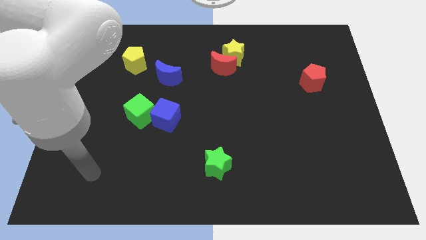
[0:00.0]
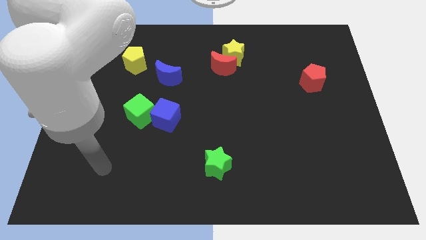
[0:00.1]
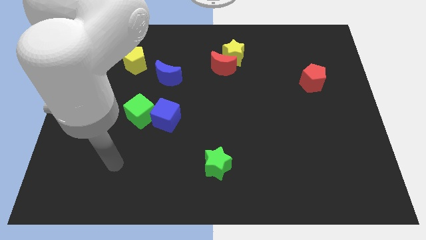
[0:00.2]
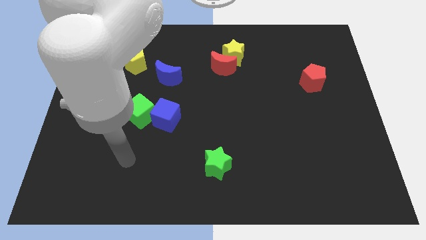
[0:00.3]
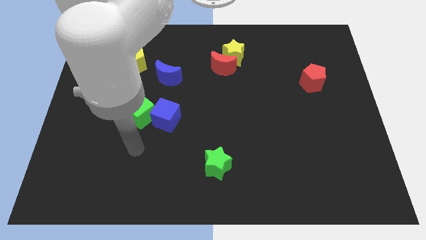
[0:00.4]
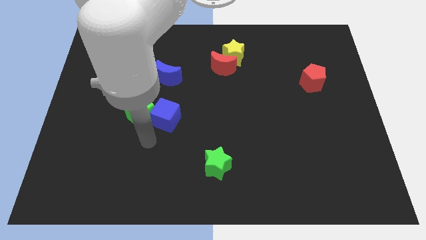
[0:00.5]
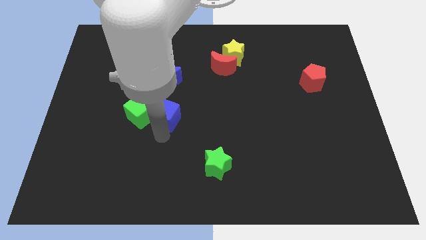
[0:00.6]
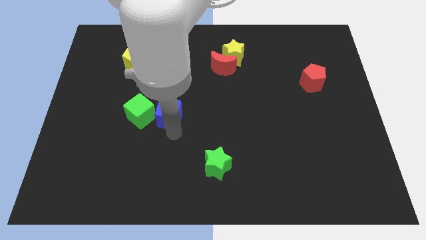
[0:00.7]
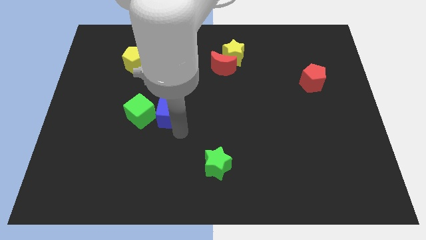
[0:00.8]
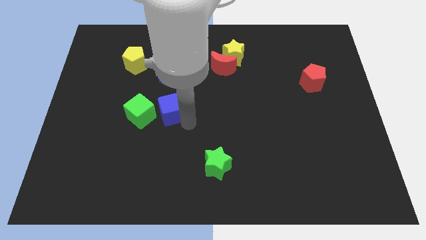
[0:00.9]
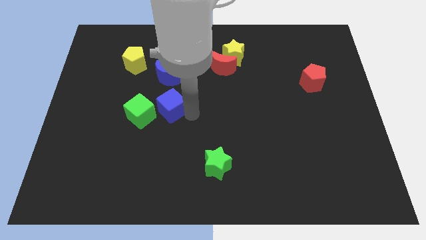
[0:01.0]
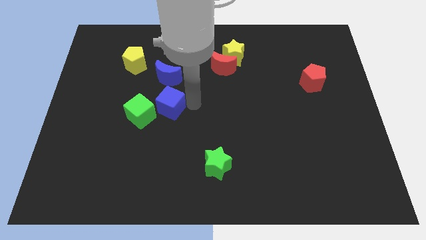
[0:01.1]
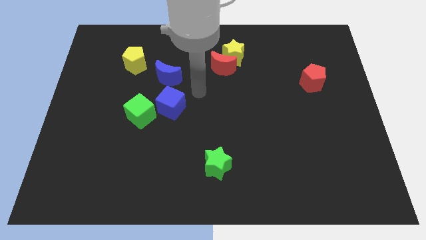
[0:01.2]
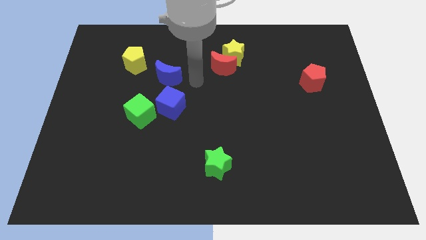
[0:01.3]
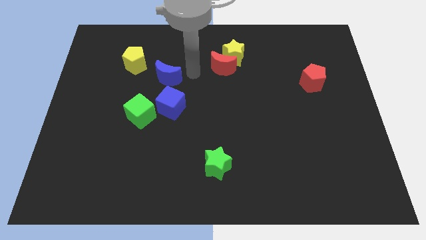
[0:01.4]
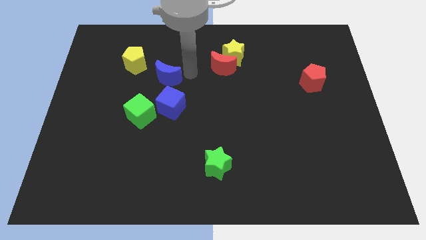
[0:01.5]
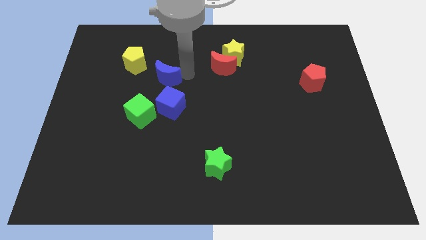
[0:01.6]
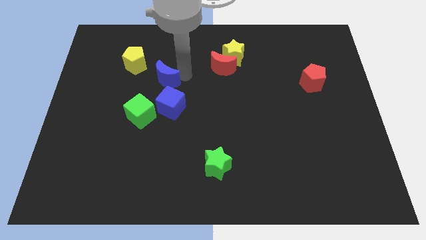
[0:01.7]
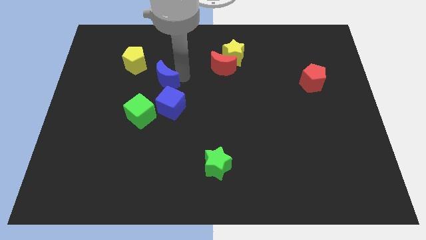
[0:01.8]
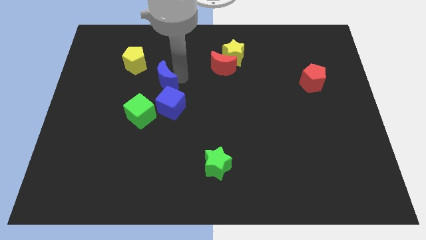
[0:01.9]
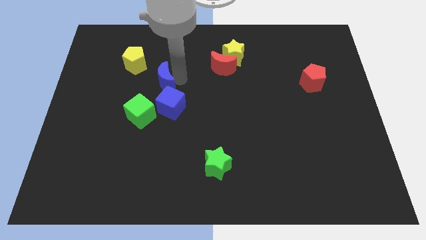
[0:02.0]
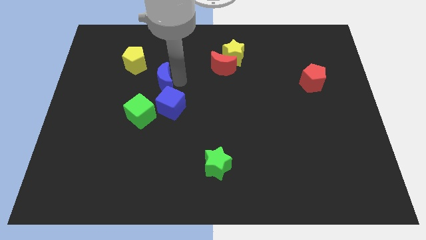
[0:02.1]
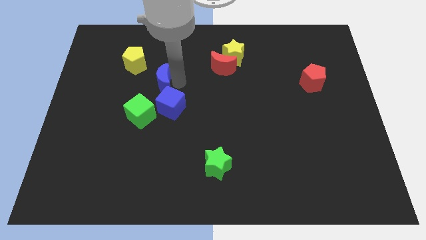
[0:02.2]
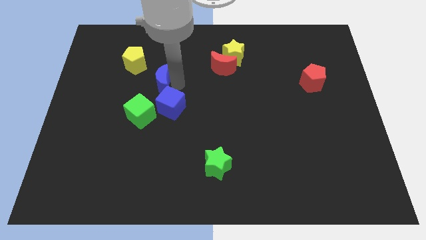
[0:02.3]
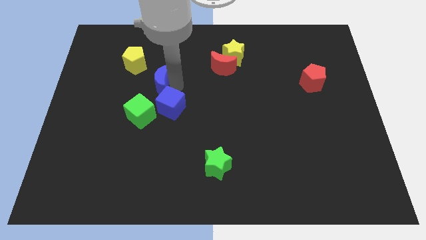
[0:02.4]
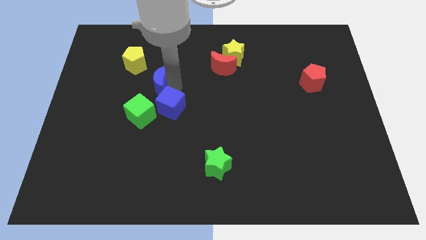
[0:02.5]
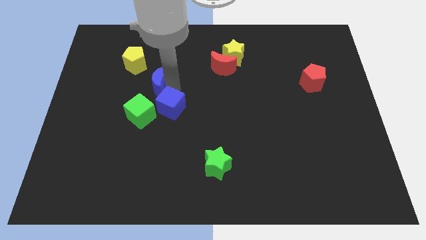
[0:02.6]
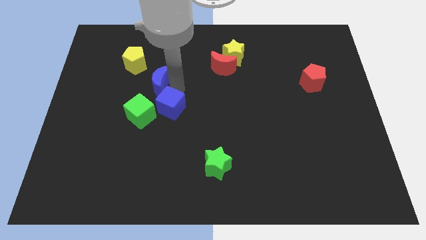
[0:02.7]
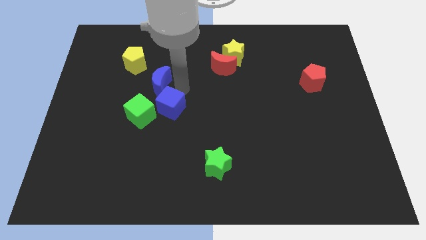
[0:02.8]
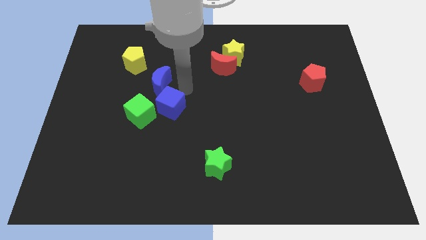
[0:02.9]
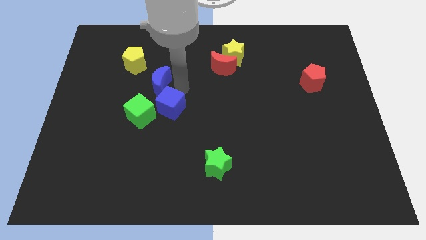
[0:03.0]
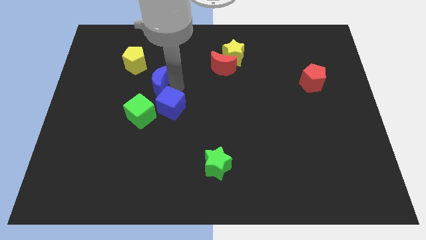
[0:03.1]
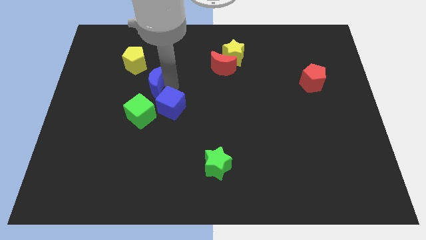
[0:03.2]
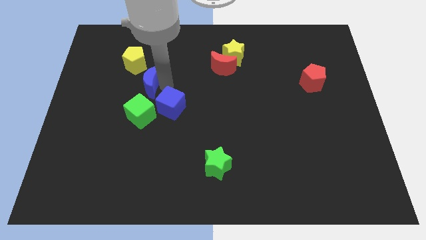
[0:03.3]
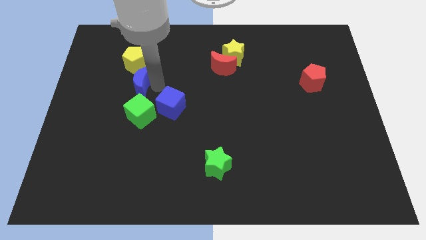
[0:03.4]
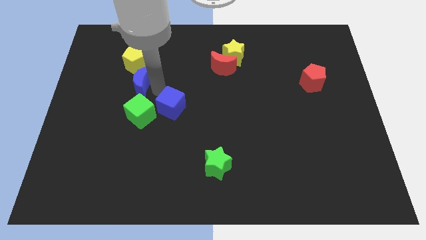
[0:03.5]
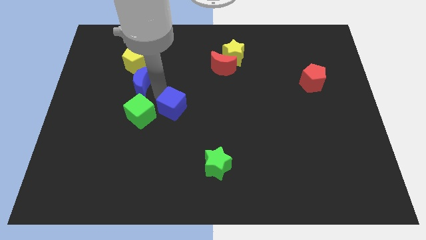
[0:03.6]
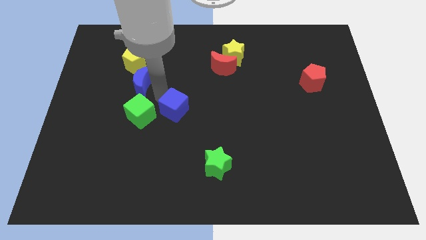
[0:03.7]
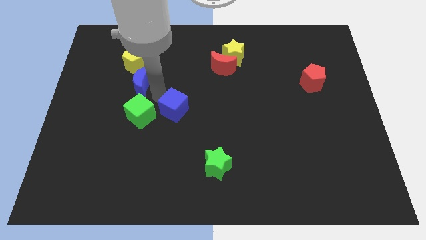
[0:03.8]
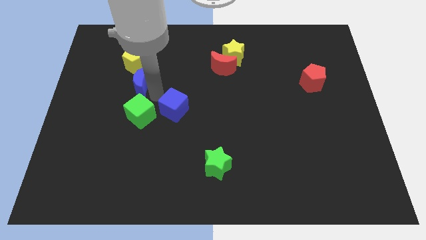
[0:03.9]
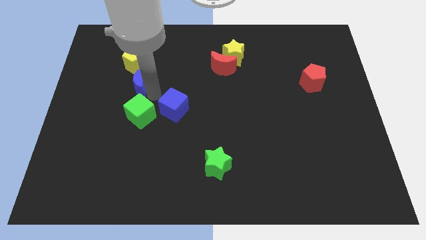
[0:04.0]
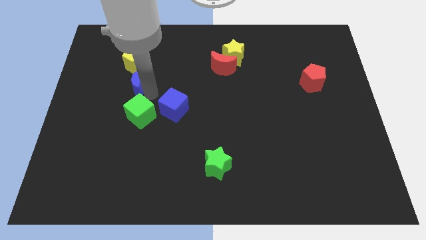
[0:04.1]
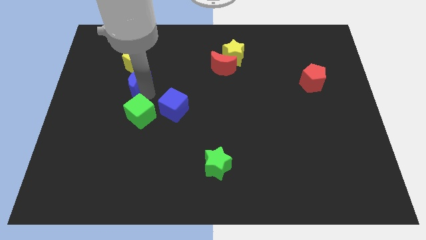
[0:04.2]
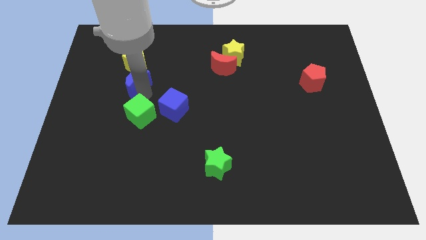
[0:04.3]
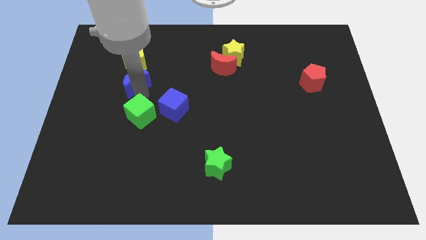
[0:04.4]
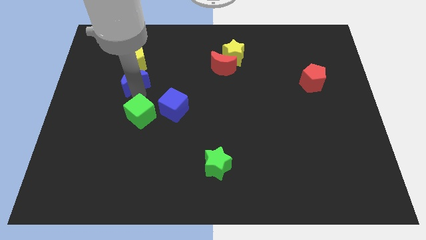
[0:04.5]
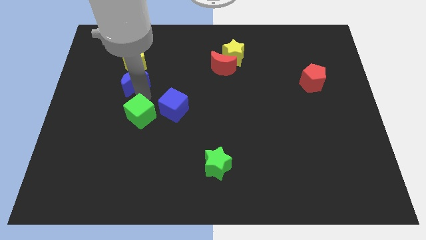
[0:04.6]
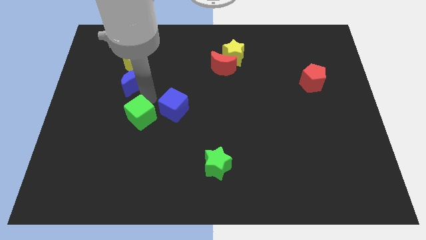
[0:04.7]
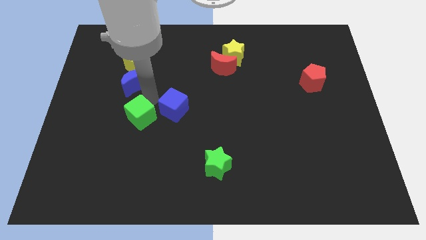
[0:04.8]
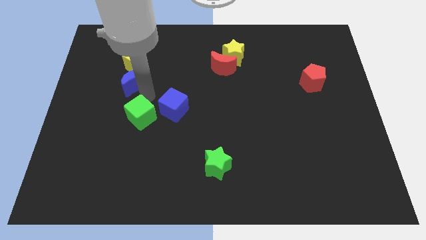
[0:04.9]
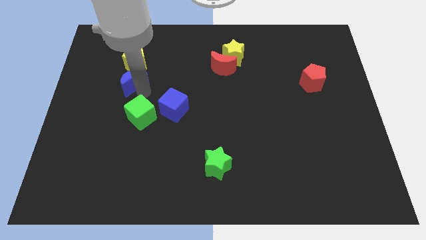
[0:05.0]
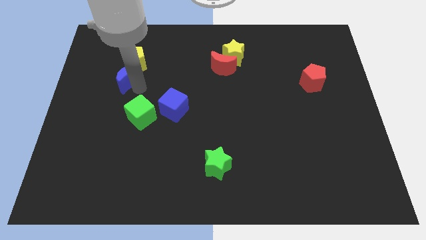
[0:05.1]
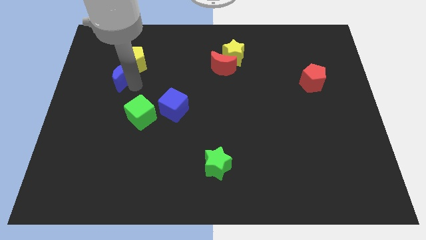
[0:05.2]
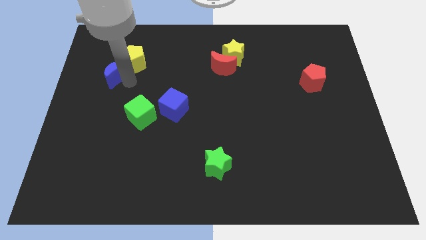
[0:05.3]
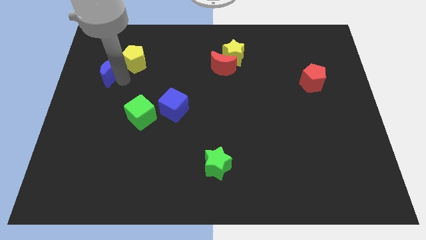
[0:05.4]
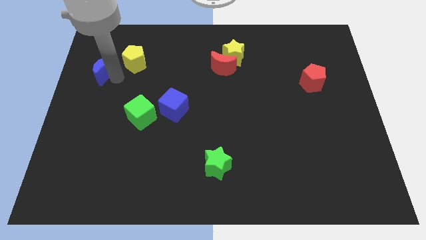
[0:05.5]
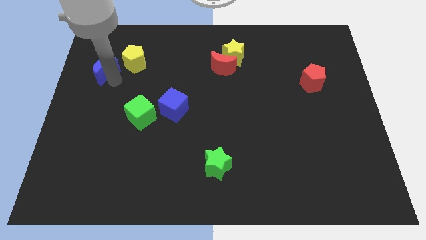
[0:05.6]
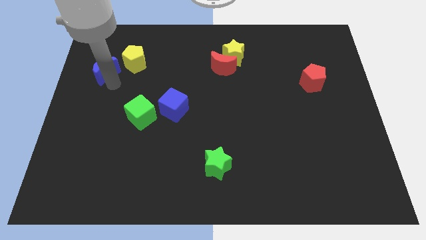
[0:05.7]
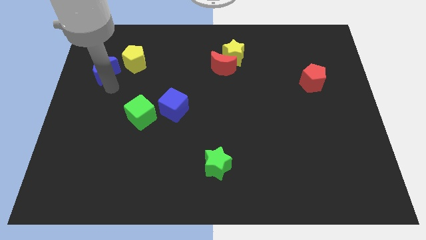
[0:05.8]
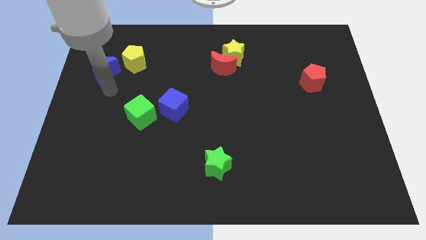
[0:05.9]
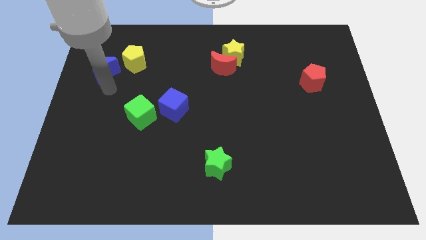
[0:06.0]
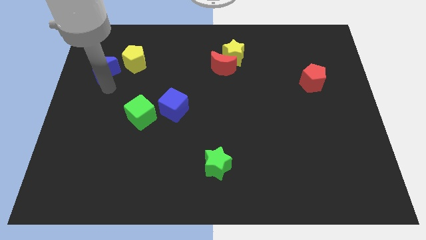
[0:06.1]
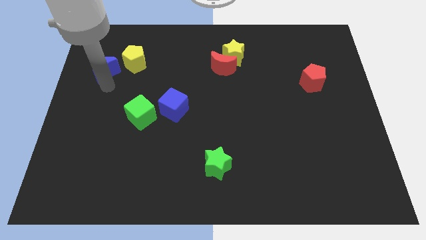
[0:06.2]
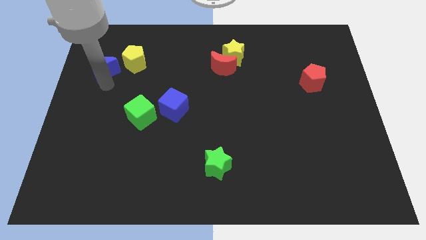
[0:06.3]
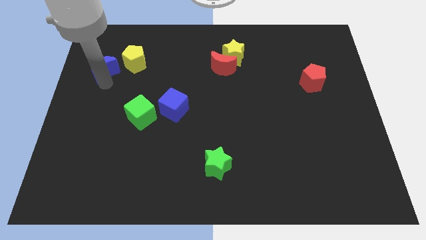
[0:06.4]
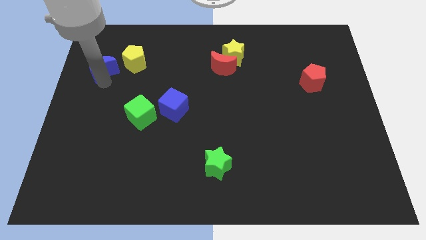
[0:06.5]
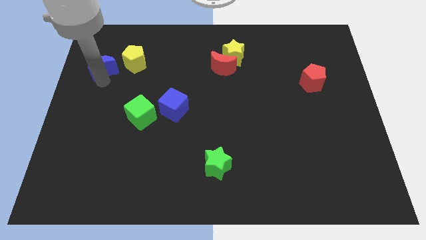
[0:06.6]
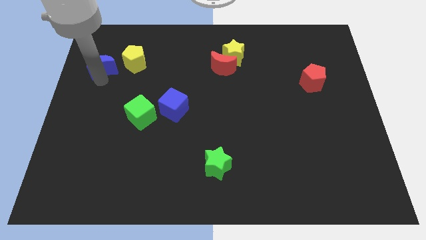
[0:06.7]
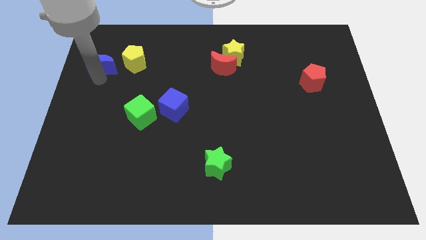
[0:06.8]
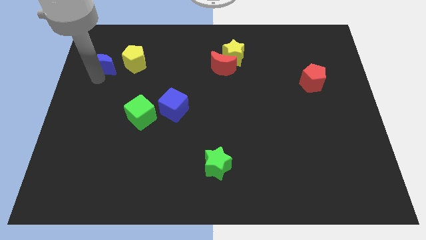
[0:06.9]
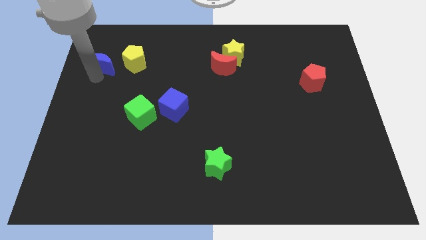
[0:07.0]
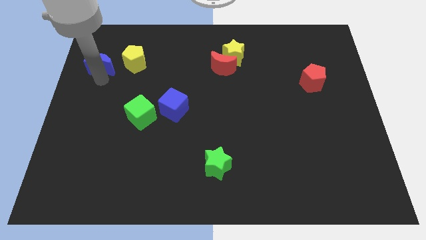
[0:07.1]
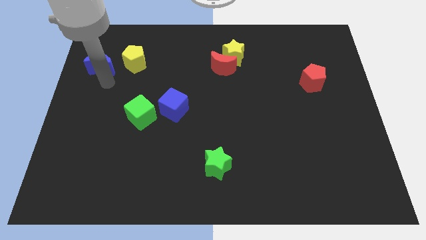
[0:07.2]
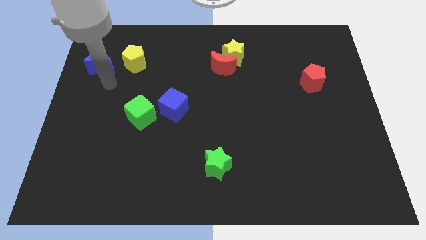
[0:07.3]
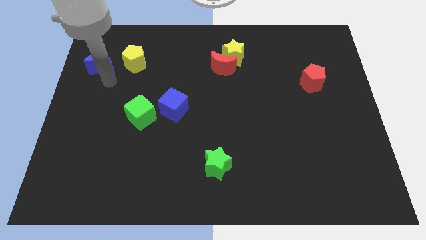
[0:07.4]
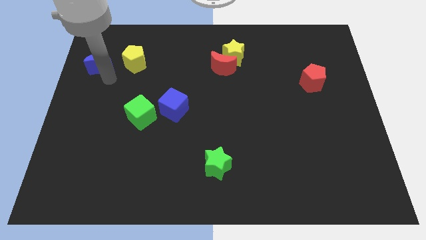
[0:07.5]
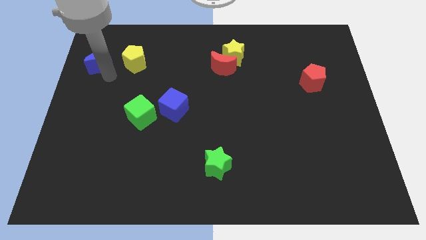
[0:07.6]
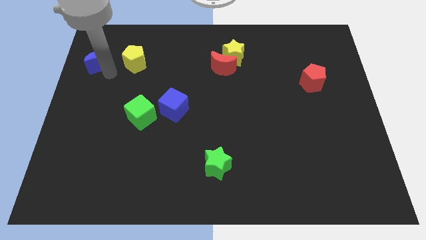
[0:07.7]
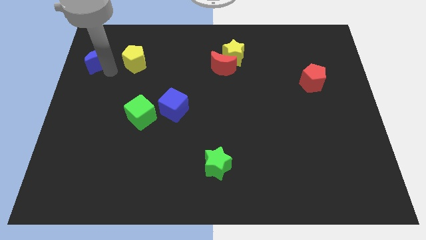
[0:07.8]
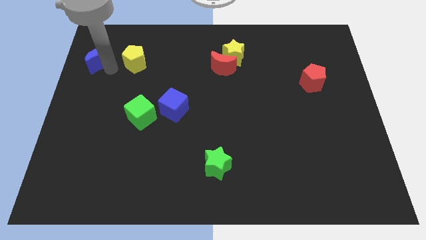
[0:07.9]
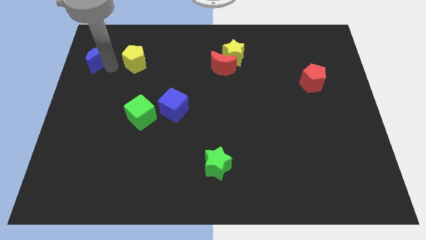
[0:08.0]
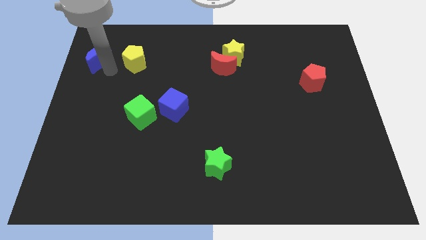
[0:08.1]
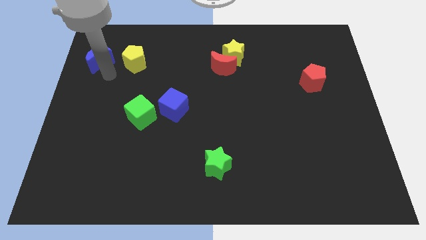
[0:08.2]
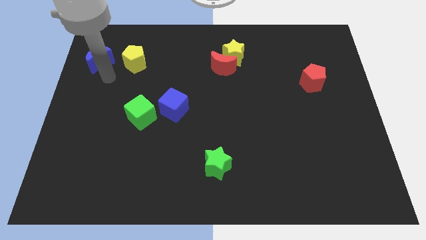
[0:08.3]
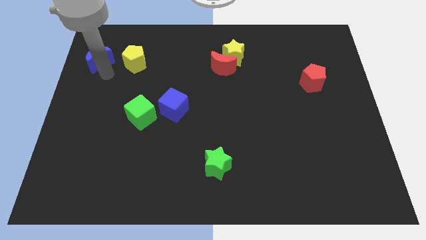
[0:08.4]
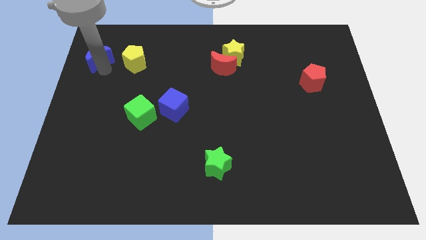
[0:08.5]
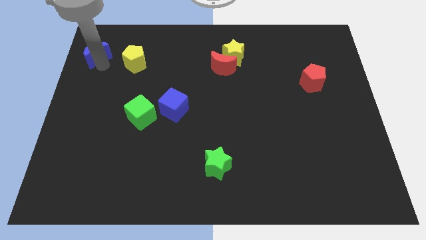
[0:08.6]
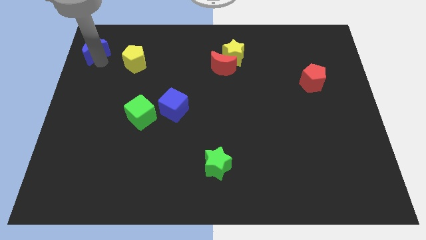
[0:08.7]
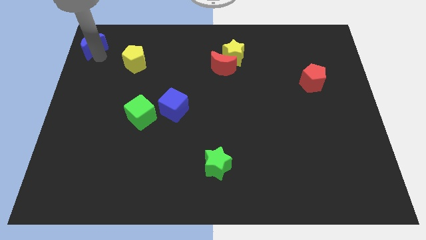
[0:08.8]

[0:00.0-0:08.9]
move the blue moon to the upper left corner
